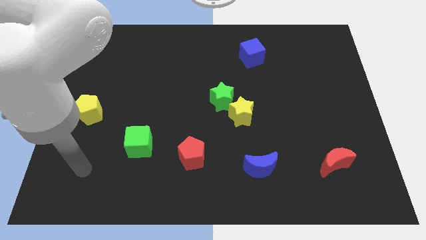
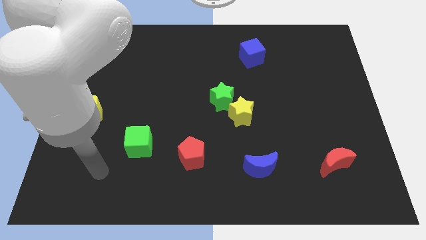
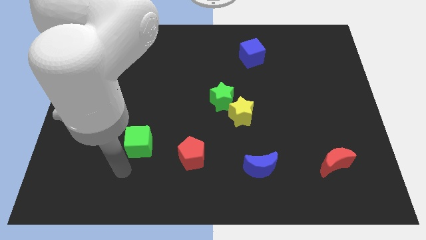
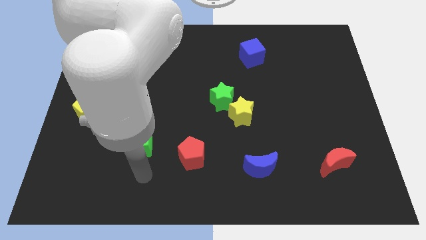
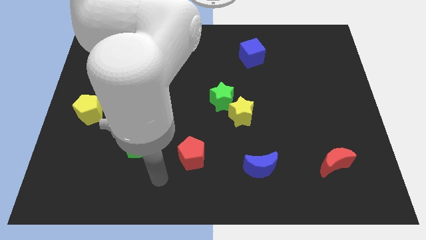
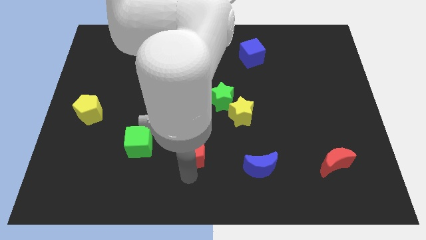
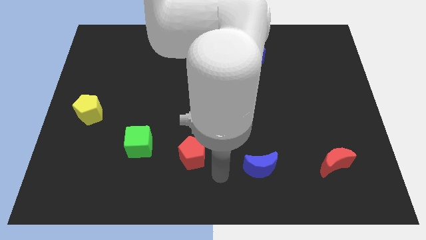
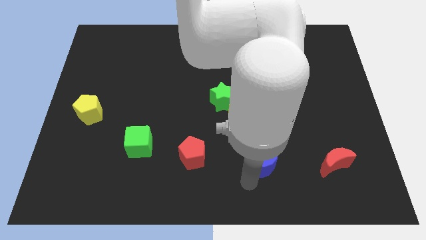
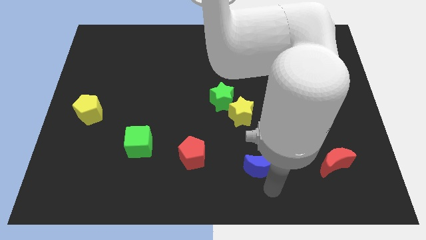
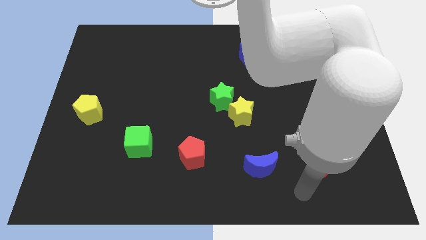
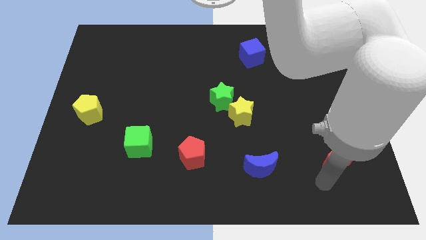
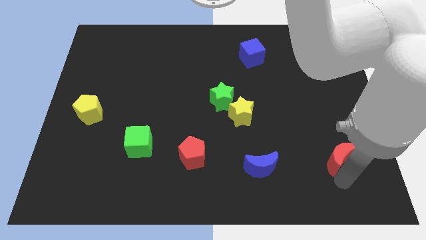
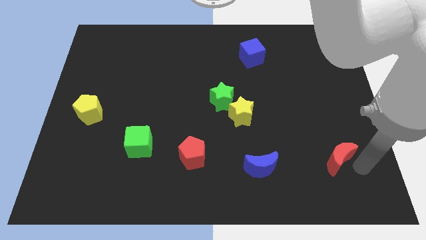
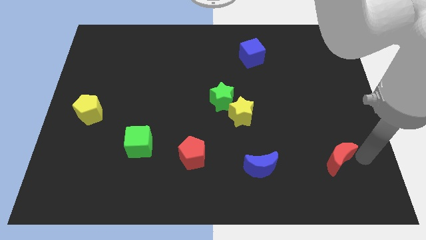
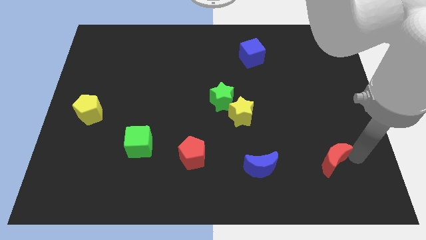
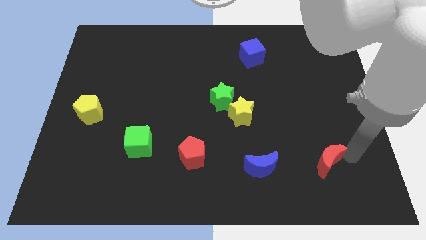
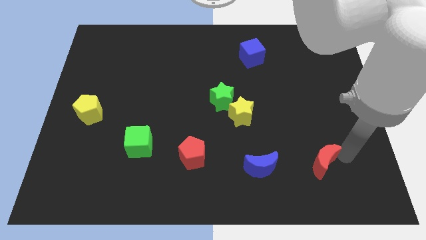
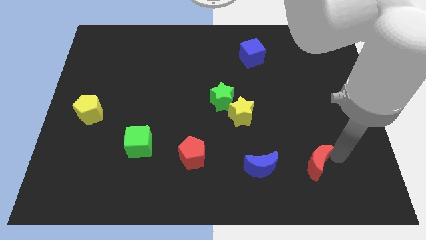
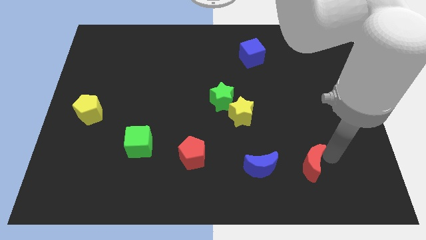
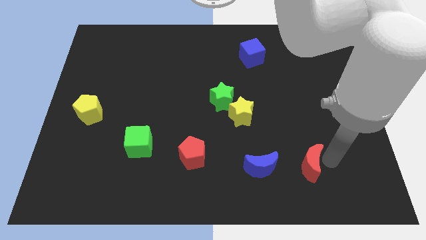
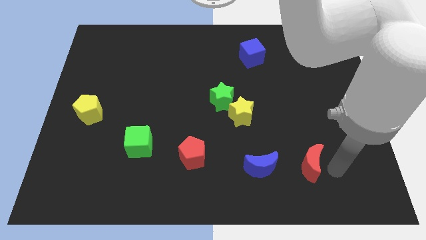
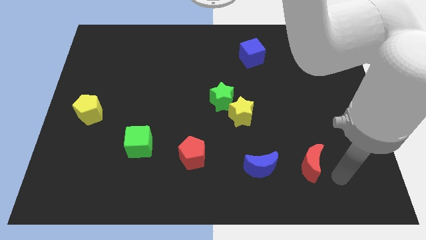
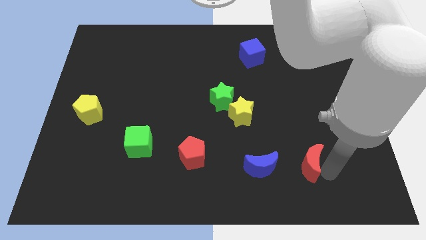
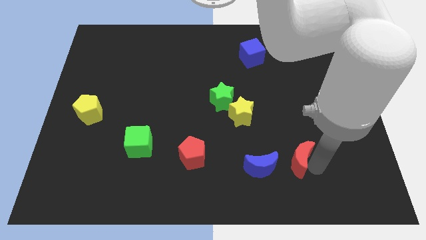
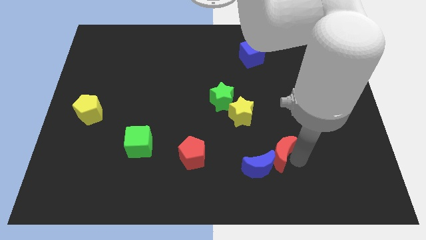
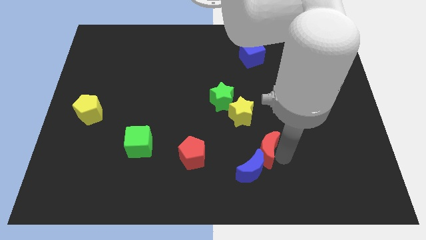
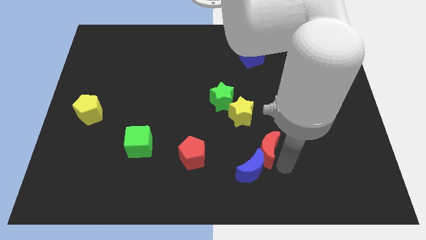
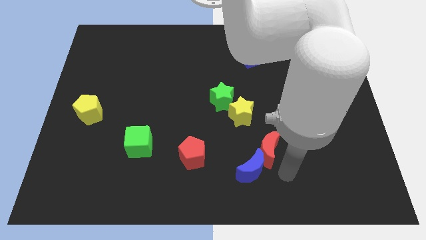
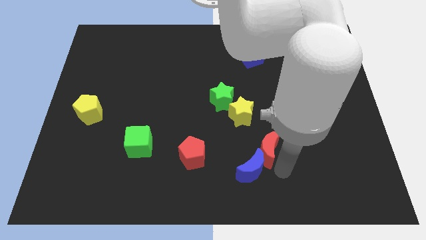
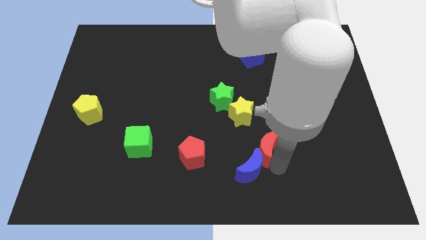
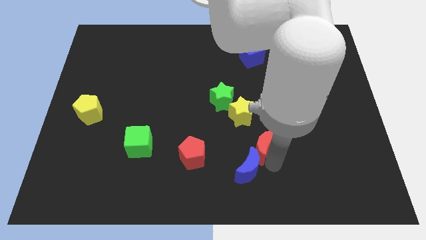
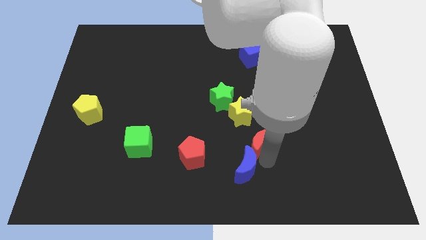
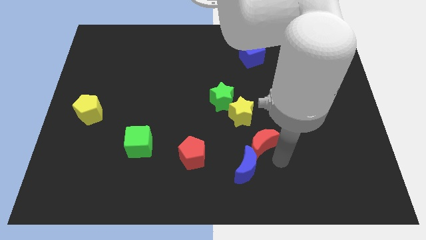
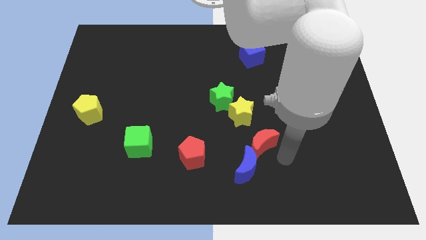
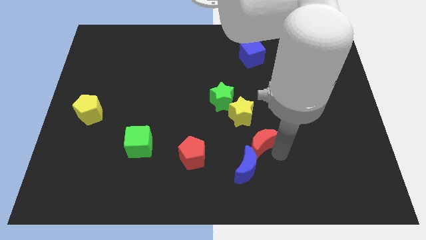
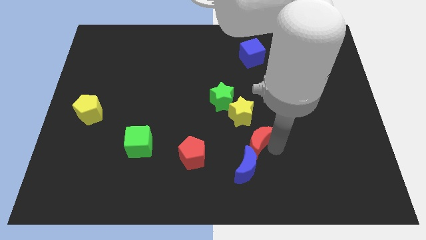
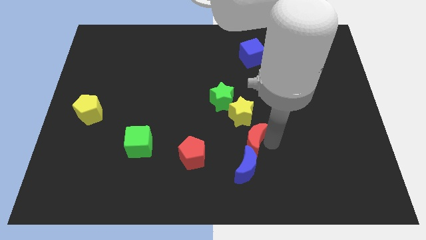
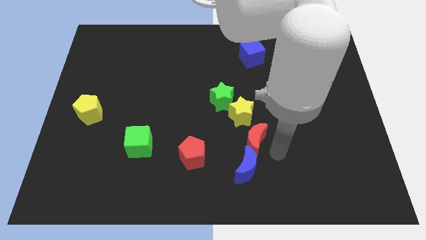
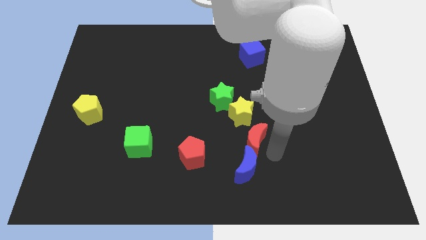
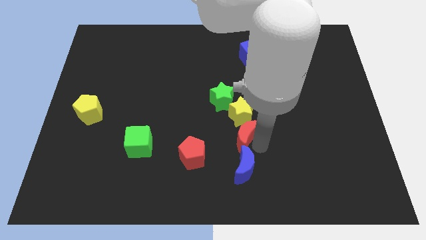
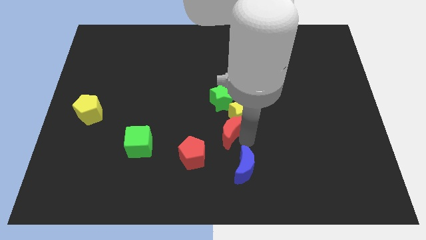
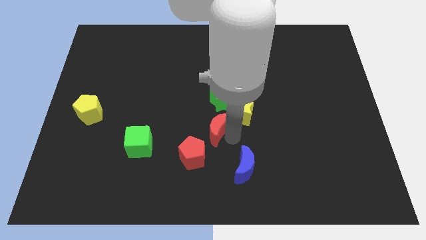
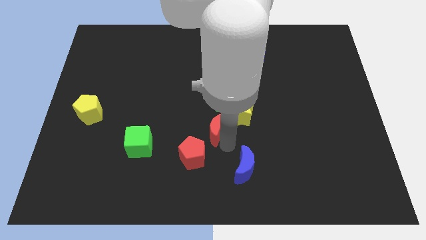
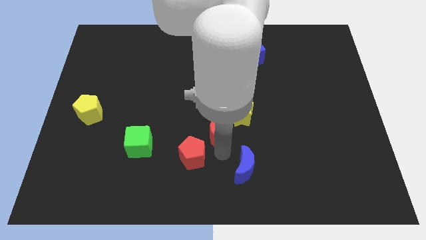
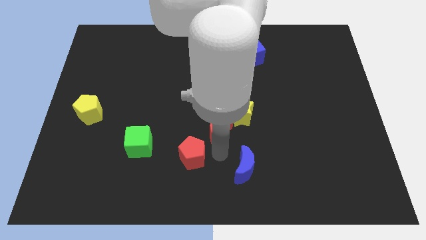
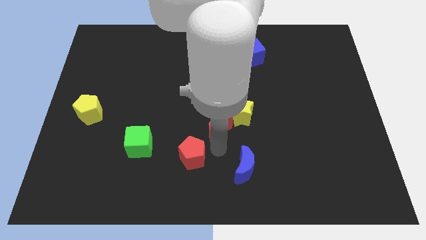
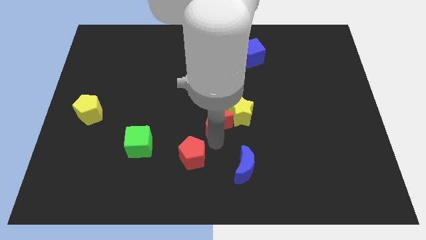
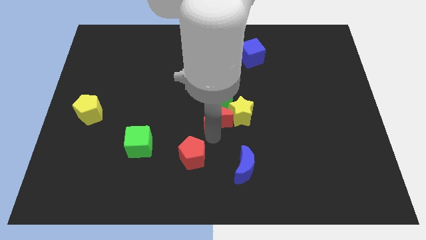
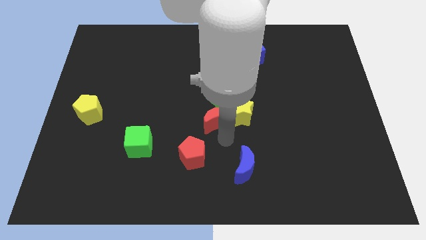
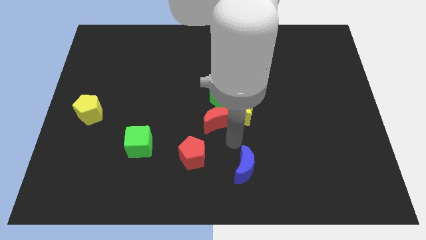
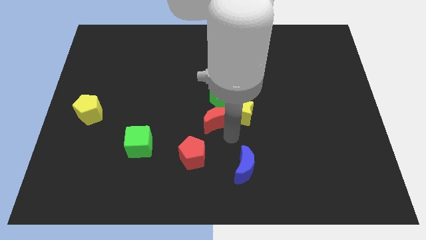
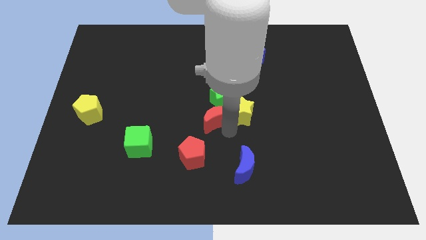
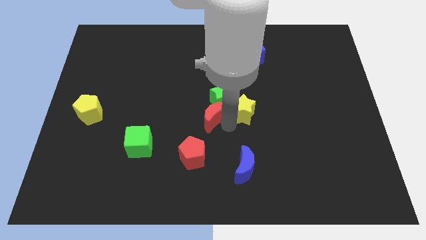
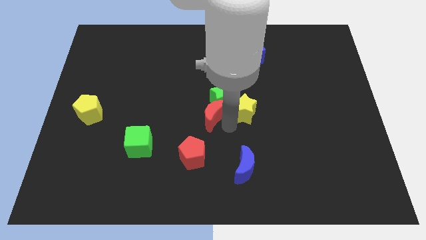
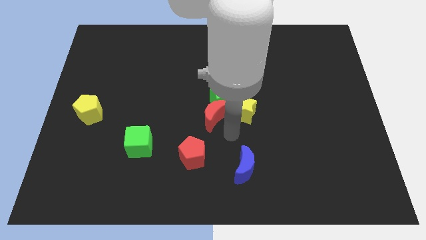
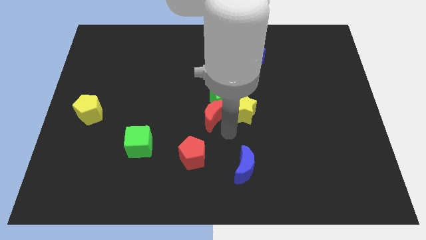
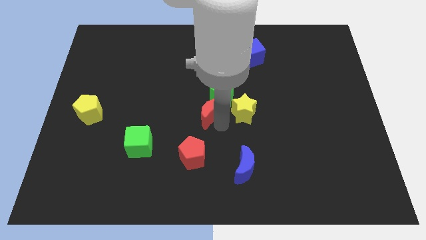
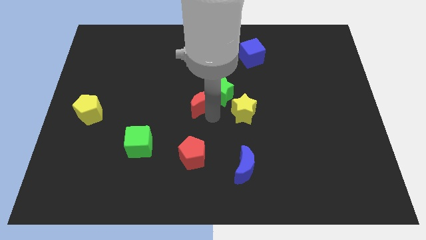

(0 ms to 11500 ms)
move the red moon to the top left side of the yellow star

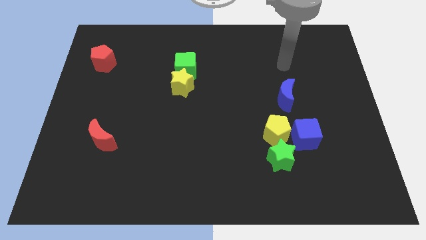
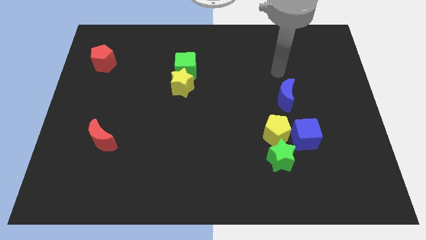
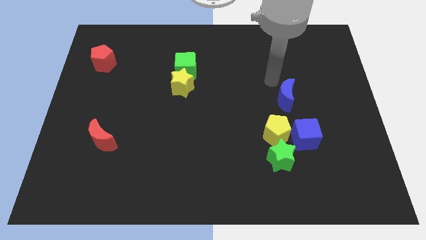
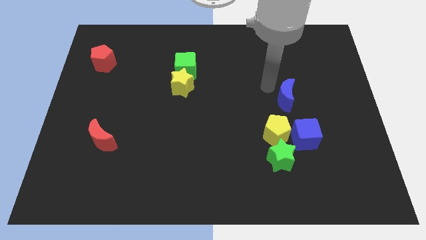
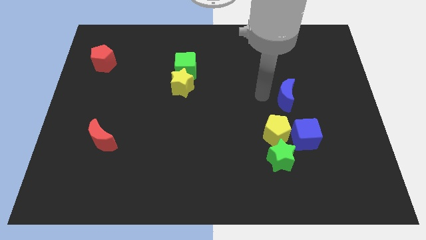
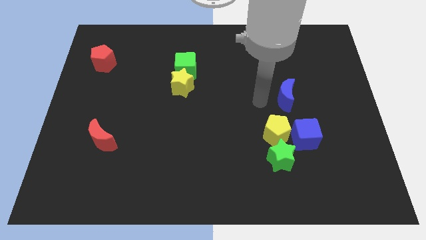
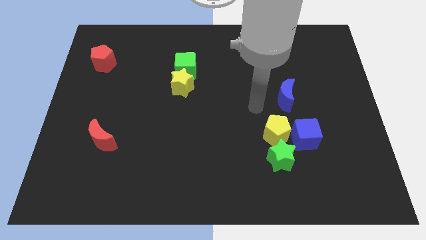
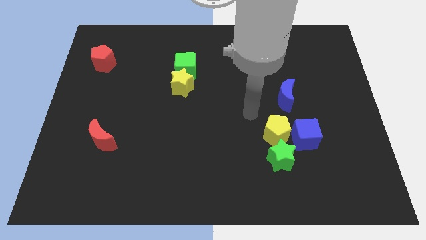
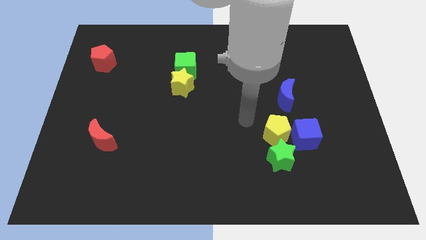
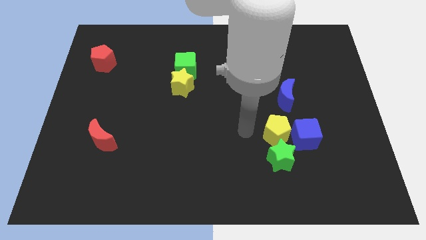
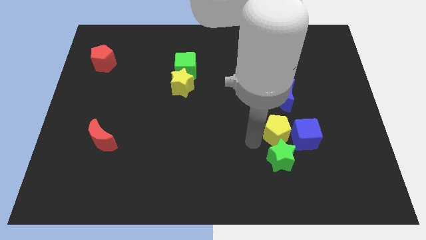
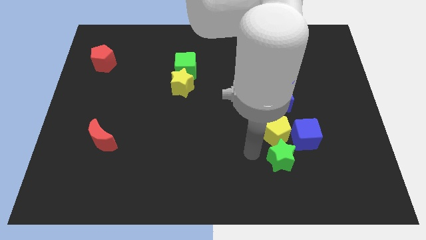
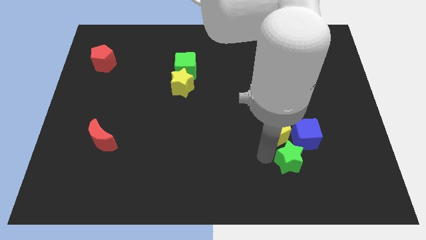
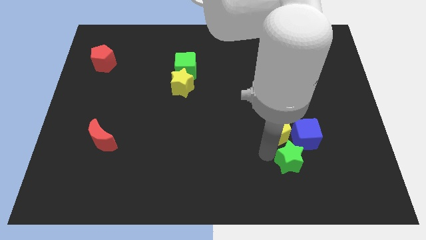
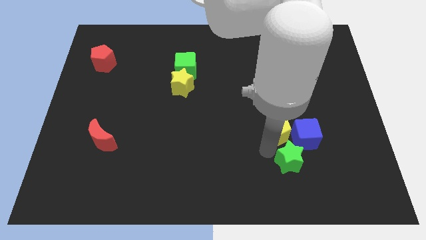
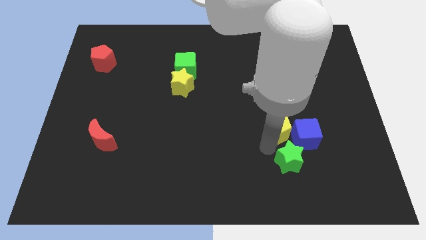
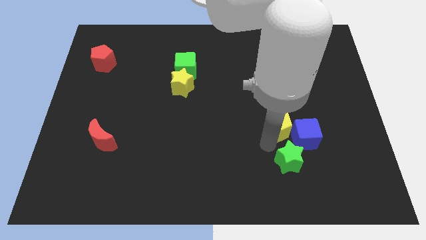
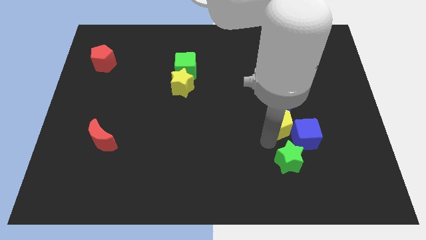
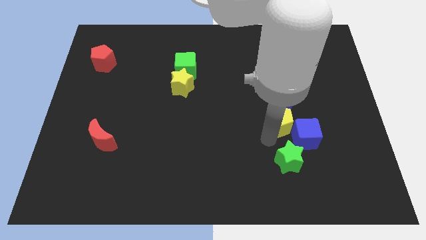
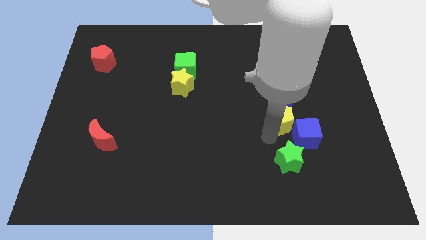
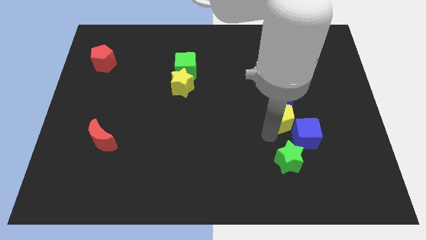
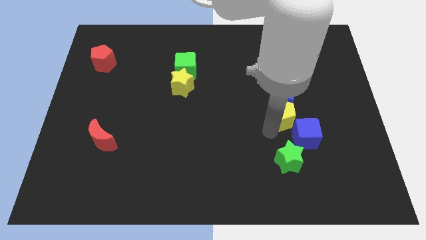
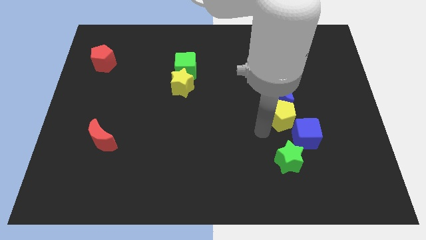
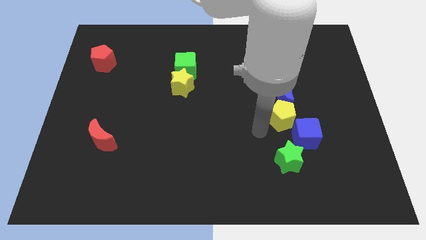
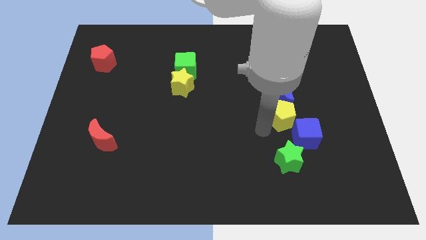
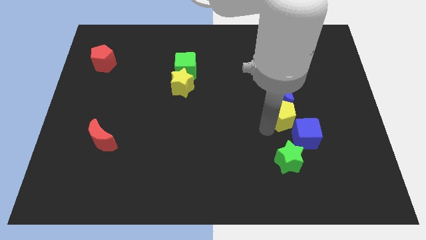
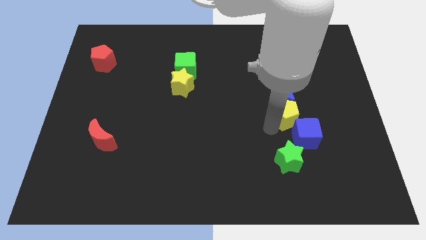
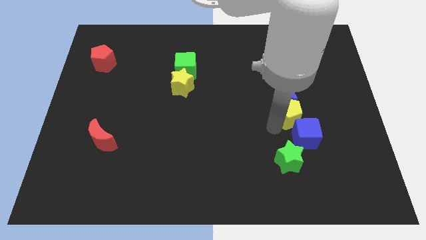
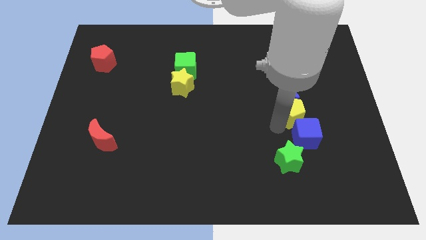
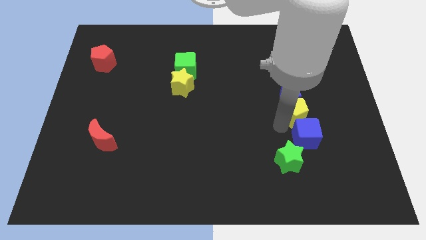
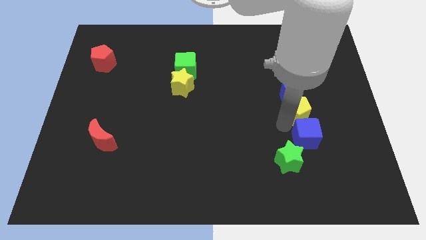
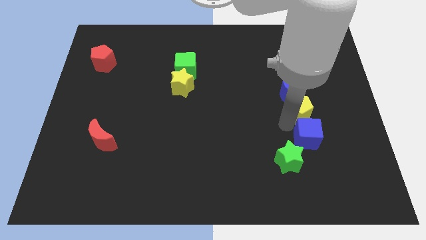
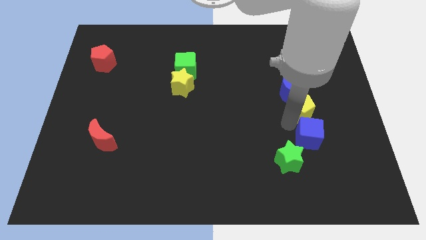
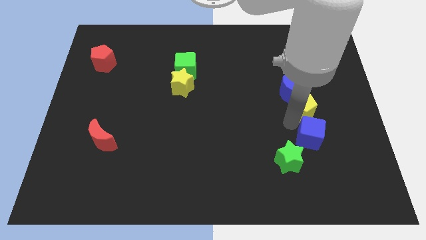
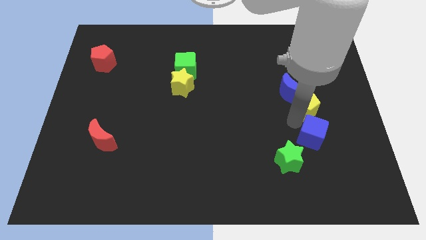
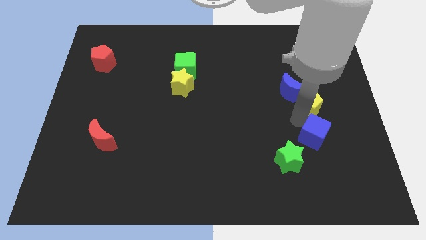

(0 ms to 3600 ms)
push the yellow pentagon right of the blue moon
